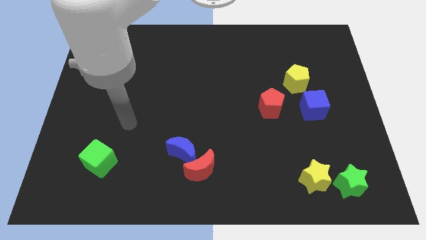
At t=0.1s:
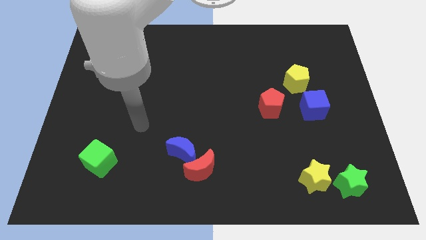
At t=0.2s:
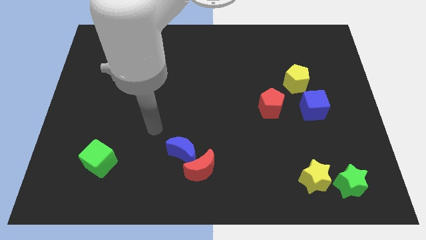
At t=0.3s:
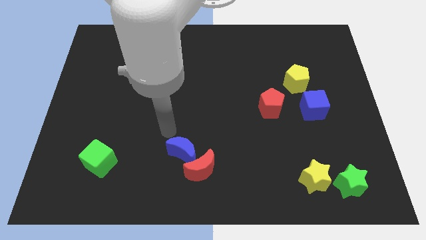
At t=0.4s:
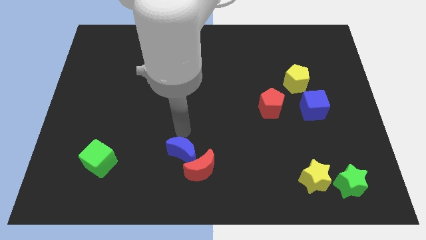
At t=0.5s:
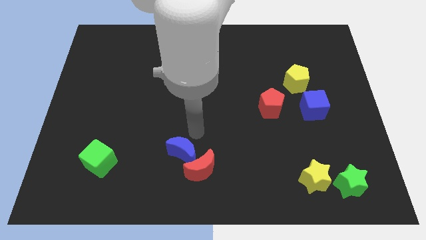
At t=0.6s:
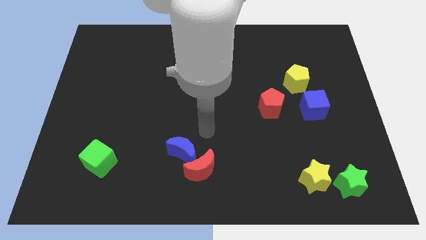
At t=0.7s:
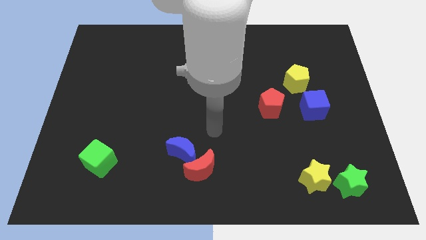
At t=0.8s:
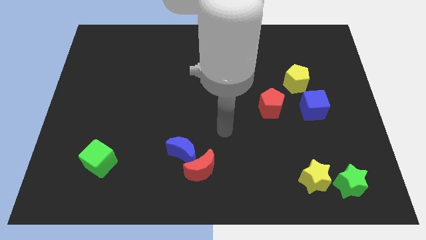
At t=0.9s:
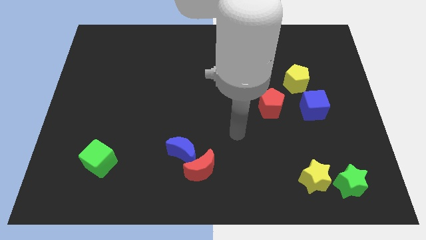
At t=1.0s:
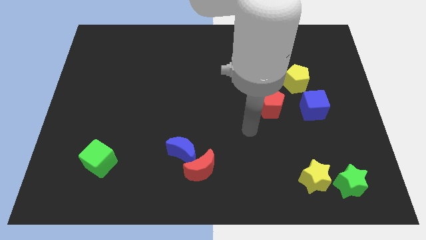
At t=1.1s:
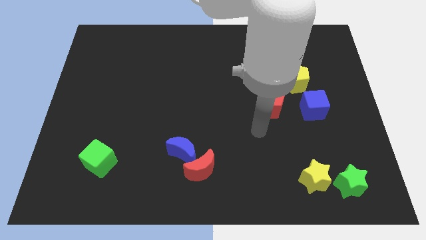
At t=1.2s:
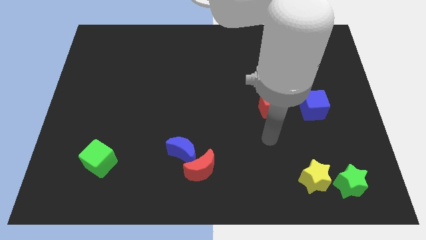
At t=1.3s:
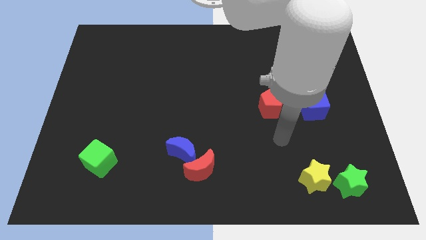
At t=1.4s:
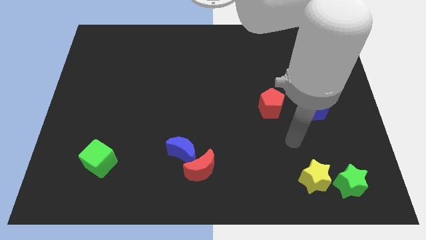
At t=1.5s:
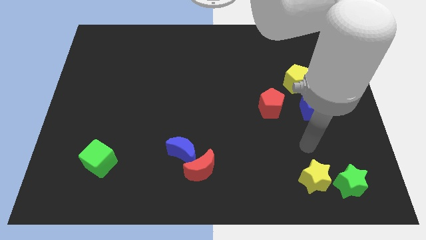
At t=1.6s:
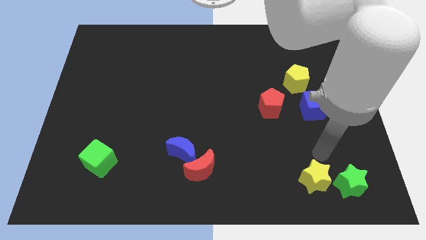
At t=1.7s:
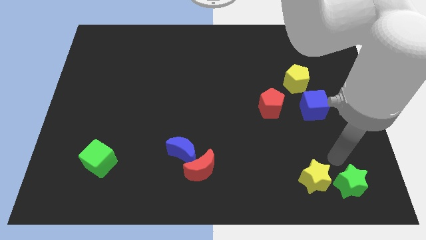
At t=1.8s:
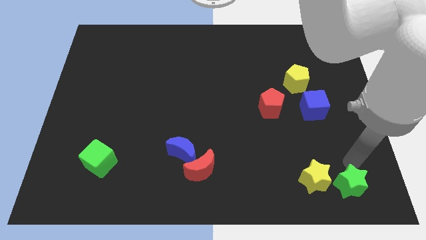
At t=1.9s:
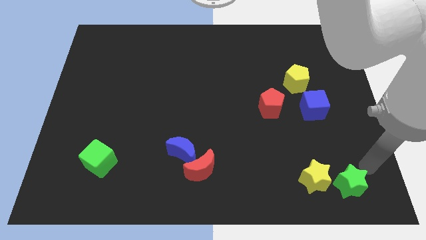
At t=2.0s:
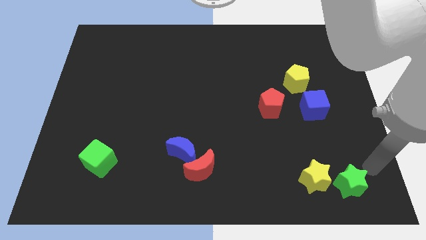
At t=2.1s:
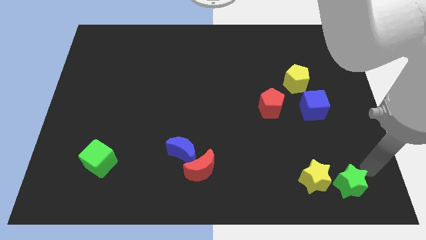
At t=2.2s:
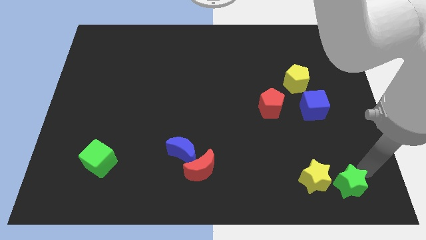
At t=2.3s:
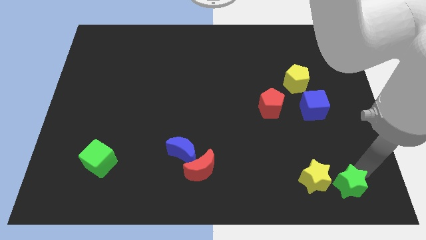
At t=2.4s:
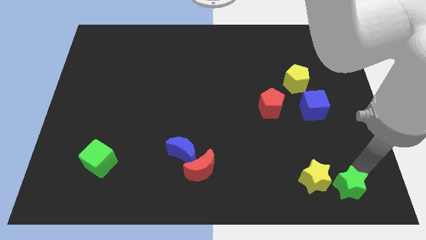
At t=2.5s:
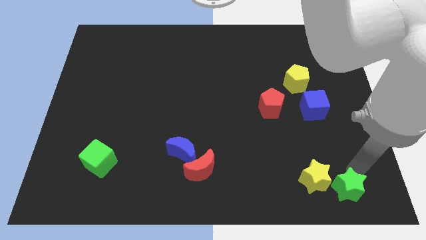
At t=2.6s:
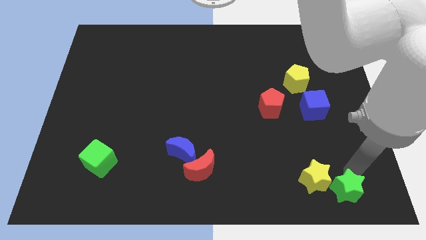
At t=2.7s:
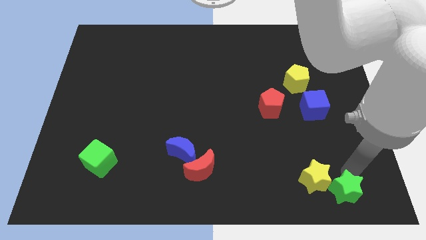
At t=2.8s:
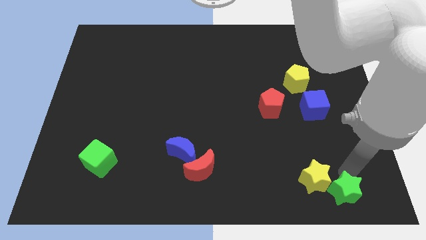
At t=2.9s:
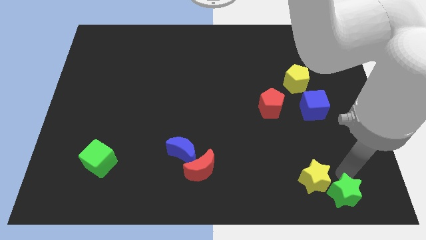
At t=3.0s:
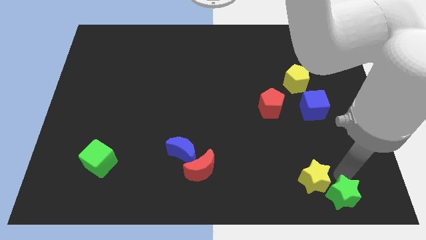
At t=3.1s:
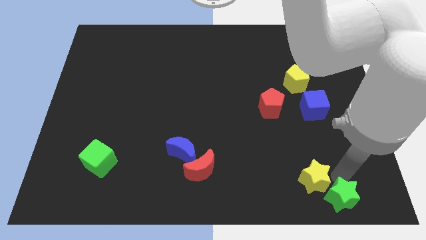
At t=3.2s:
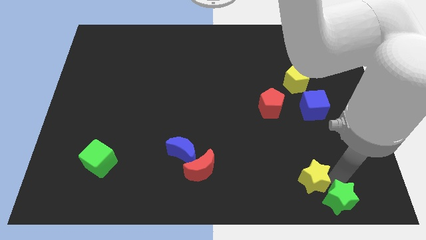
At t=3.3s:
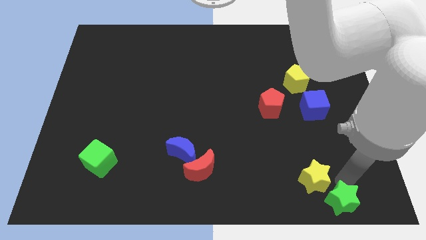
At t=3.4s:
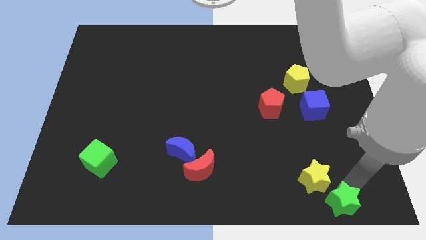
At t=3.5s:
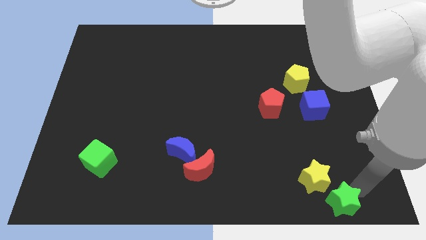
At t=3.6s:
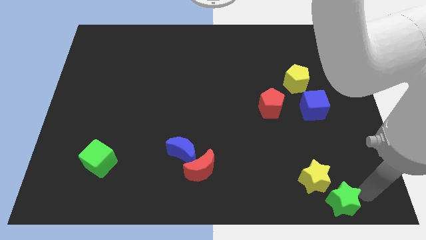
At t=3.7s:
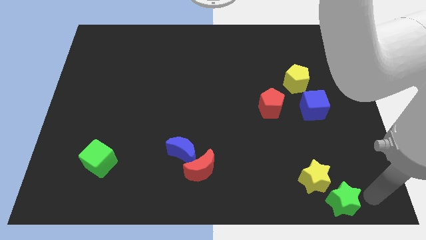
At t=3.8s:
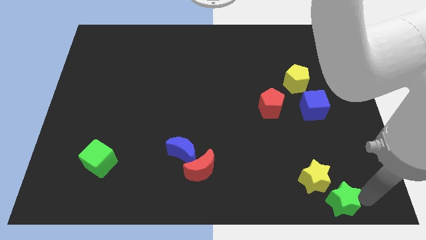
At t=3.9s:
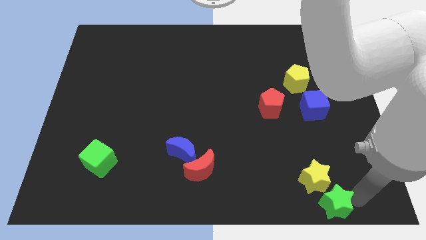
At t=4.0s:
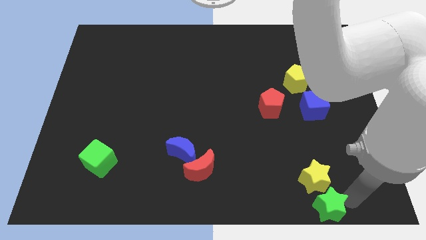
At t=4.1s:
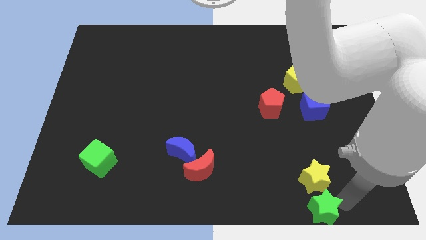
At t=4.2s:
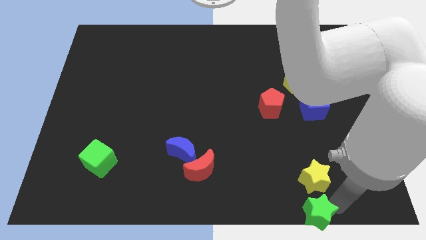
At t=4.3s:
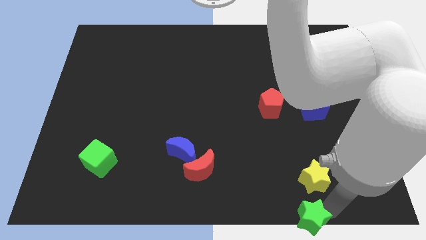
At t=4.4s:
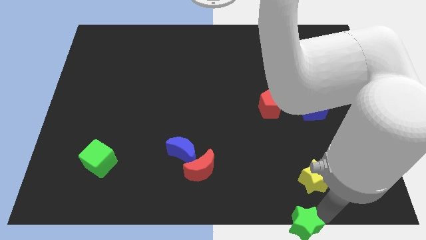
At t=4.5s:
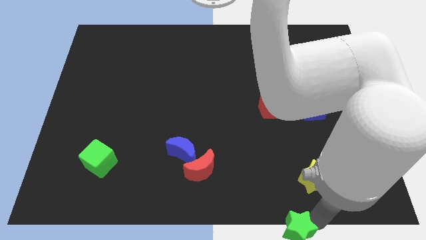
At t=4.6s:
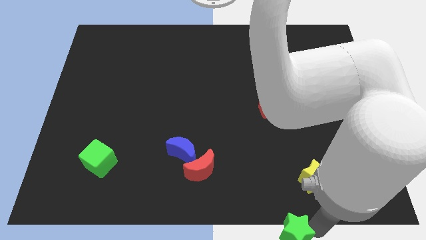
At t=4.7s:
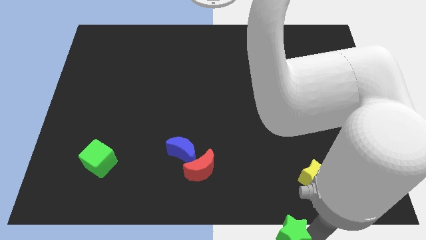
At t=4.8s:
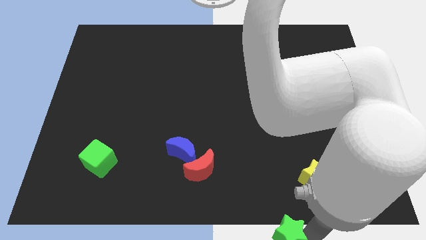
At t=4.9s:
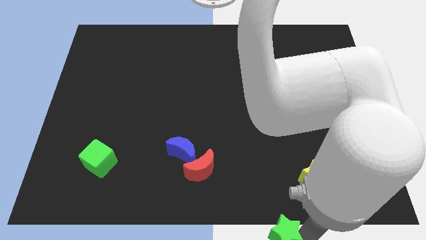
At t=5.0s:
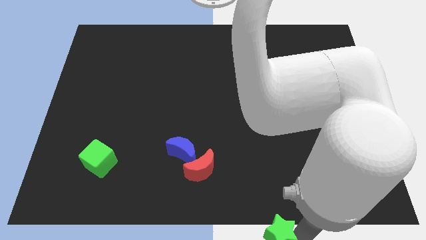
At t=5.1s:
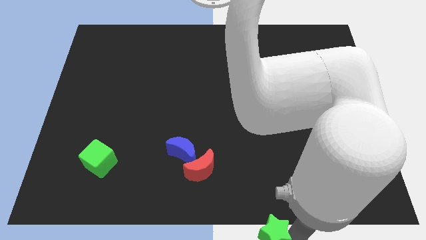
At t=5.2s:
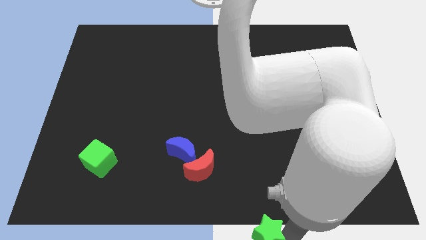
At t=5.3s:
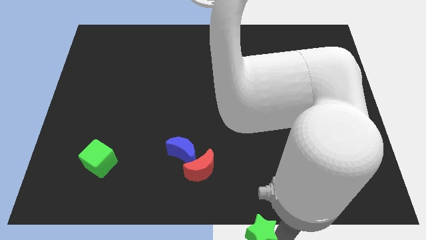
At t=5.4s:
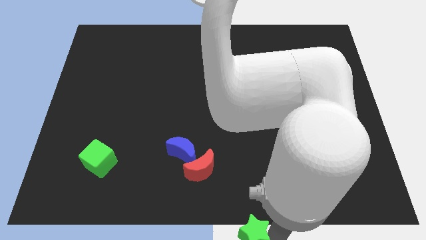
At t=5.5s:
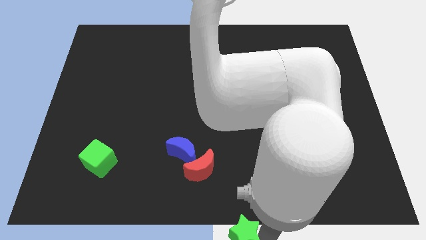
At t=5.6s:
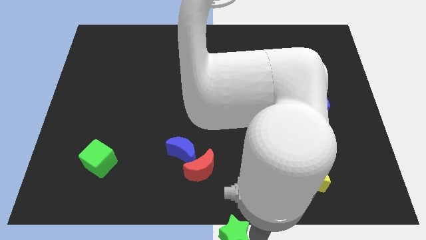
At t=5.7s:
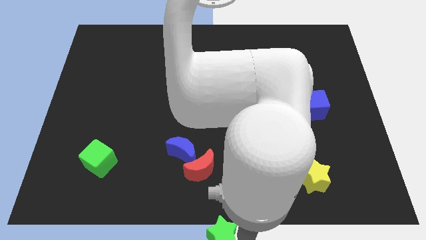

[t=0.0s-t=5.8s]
slide the green star to the left

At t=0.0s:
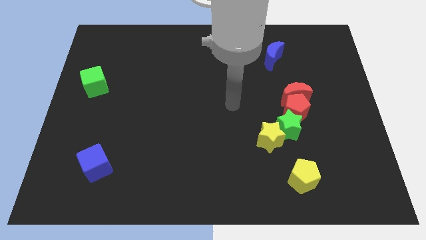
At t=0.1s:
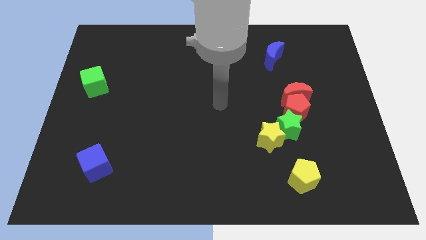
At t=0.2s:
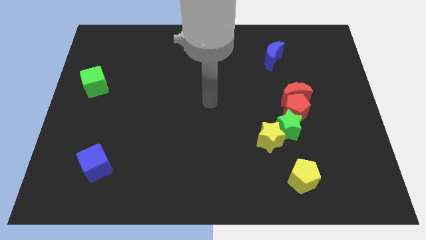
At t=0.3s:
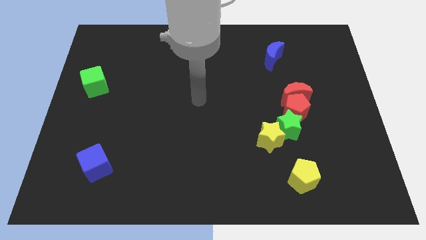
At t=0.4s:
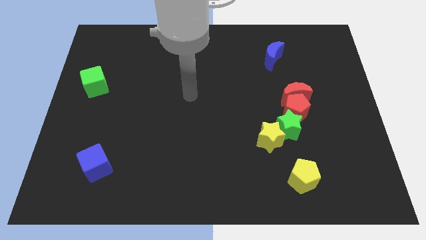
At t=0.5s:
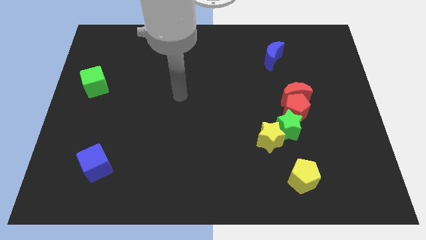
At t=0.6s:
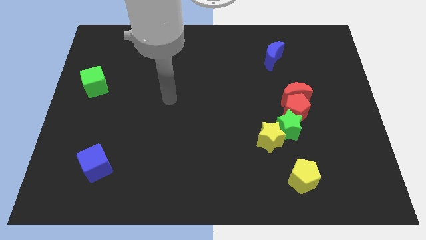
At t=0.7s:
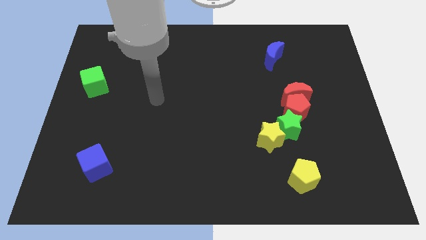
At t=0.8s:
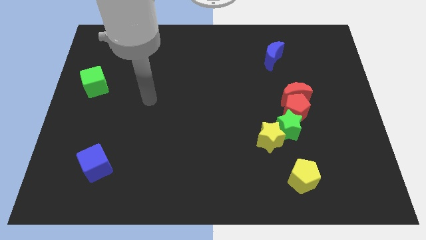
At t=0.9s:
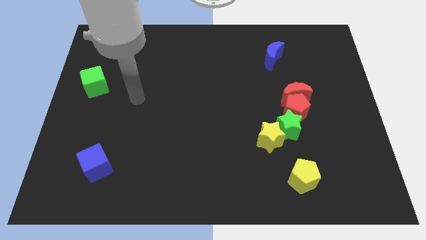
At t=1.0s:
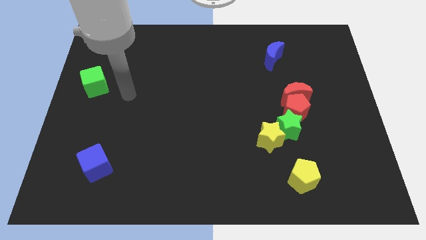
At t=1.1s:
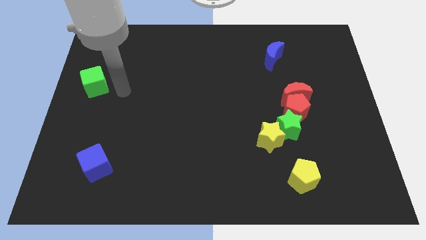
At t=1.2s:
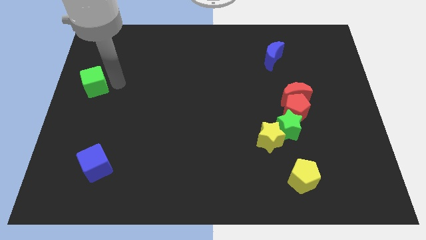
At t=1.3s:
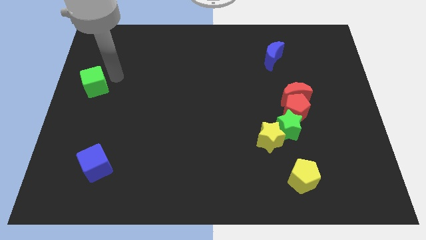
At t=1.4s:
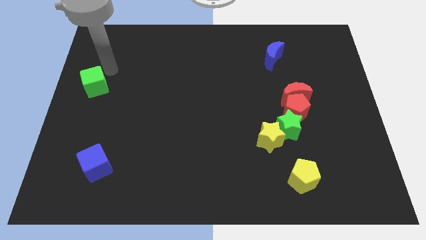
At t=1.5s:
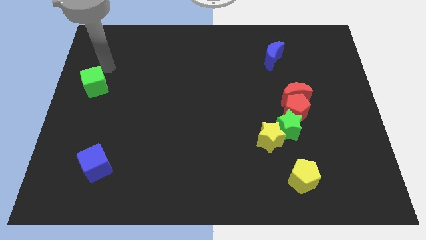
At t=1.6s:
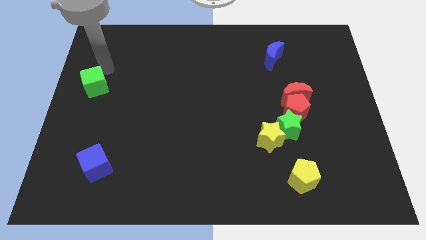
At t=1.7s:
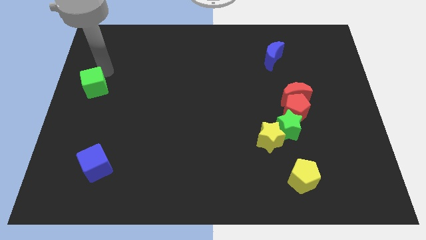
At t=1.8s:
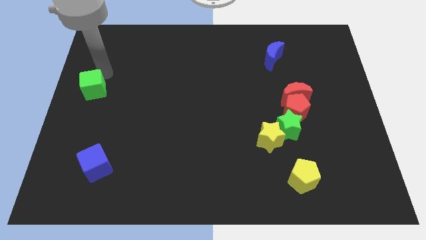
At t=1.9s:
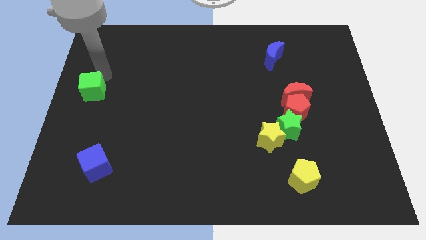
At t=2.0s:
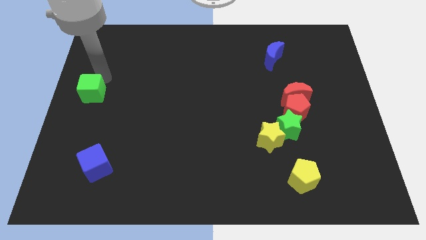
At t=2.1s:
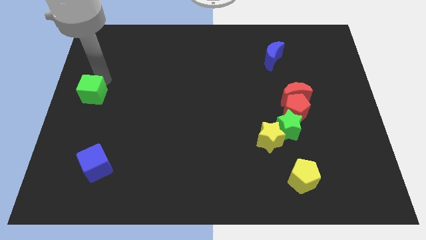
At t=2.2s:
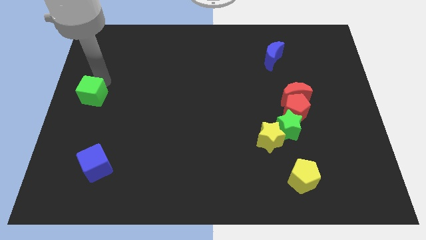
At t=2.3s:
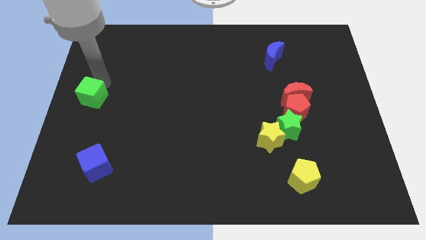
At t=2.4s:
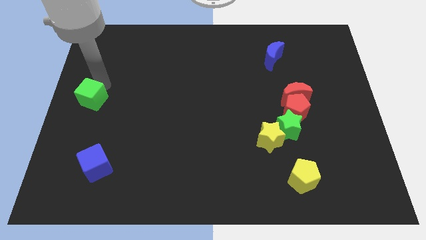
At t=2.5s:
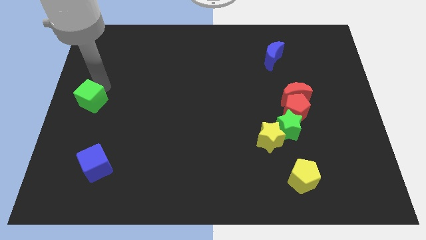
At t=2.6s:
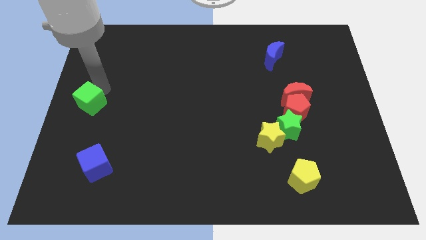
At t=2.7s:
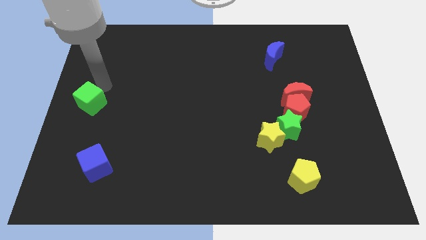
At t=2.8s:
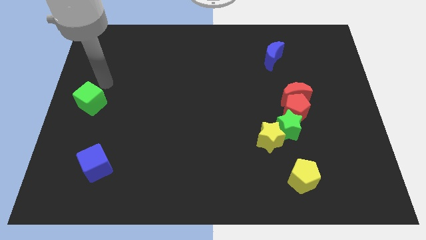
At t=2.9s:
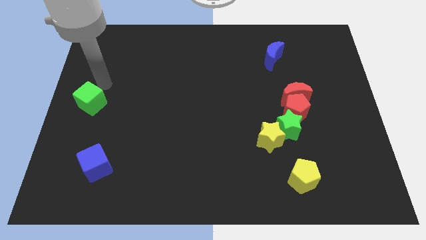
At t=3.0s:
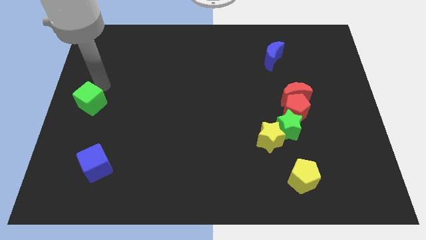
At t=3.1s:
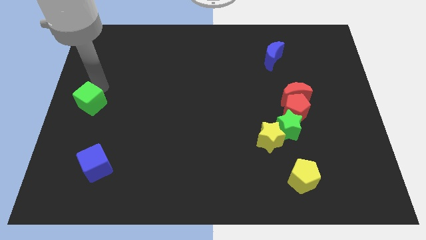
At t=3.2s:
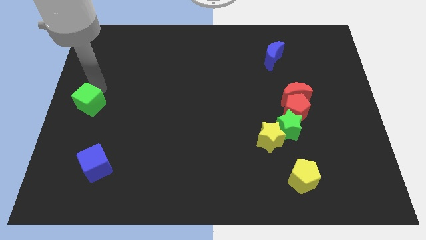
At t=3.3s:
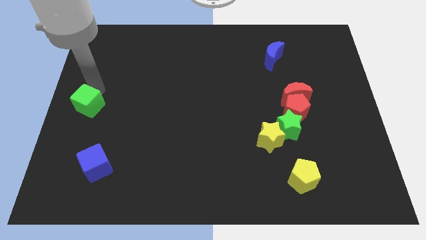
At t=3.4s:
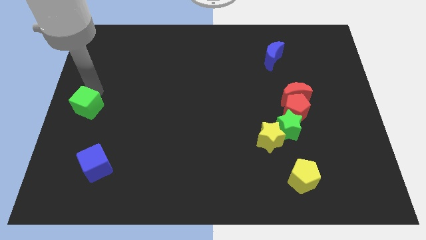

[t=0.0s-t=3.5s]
slide the green cube down slightly

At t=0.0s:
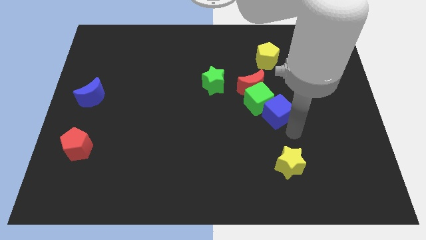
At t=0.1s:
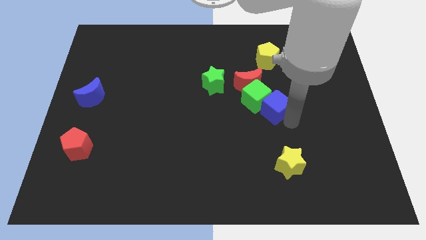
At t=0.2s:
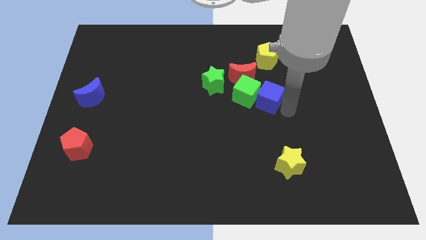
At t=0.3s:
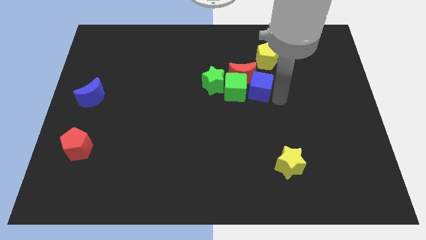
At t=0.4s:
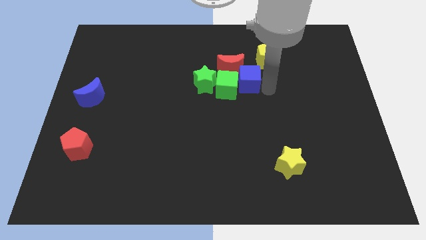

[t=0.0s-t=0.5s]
push the green cube left somewhat
